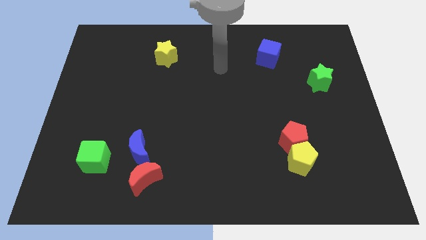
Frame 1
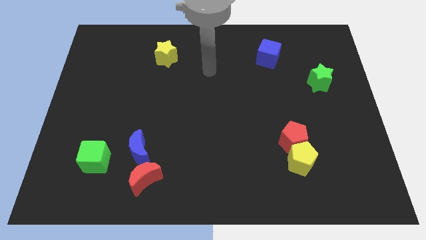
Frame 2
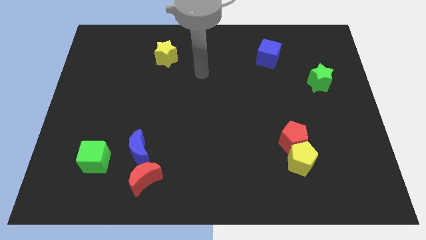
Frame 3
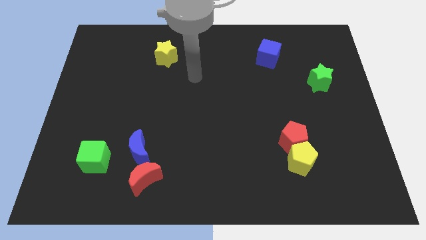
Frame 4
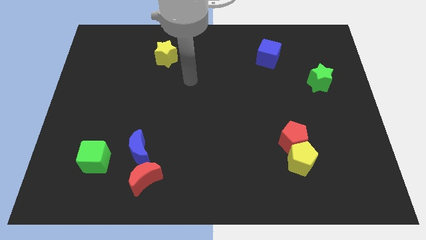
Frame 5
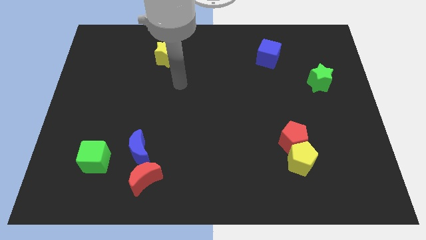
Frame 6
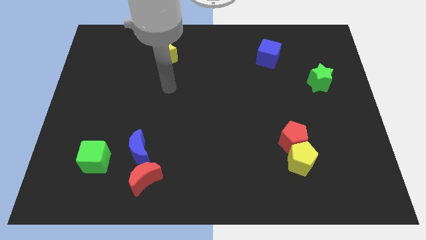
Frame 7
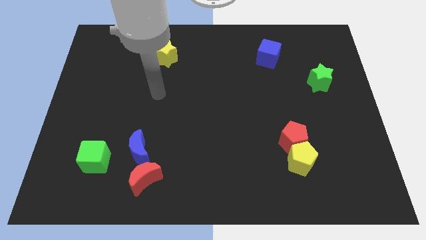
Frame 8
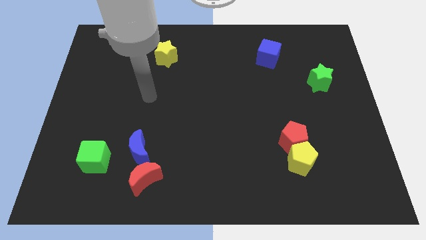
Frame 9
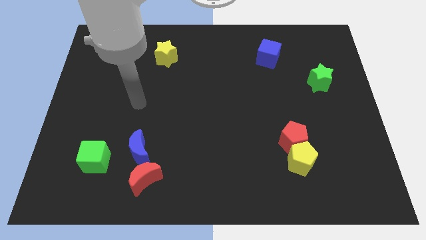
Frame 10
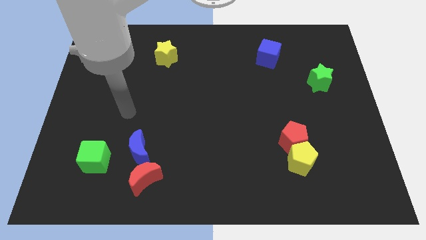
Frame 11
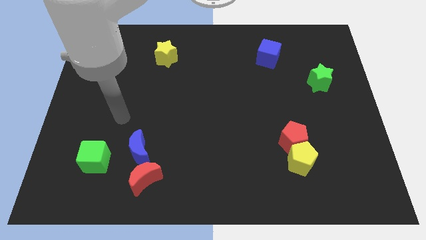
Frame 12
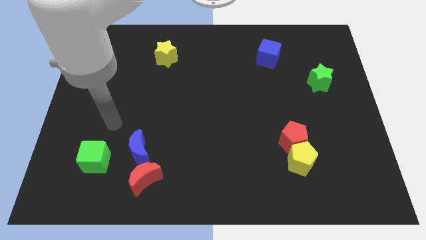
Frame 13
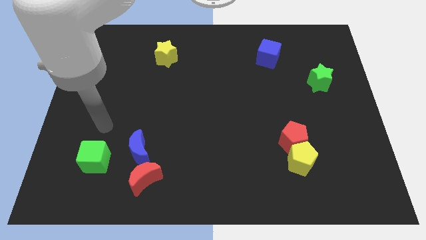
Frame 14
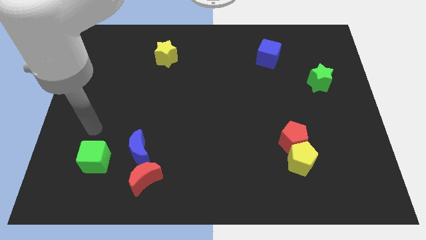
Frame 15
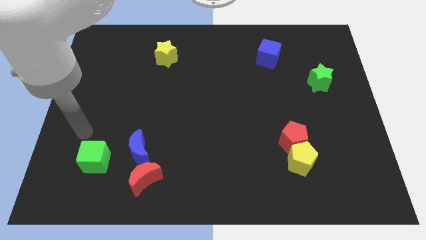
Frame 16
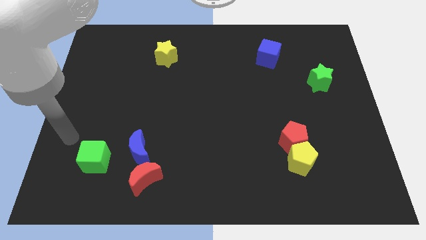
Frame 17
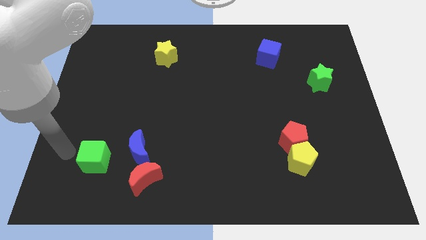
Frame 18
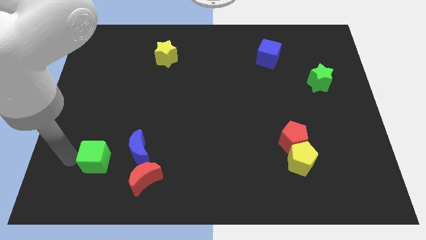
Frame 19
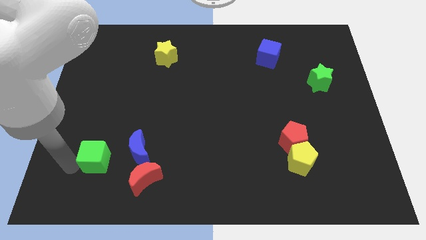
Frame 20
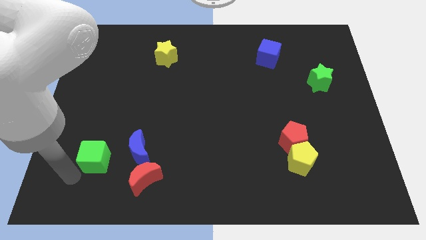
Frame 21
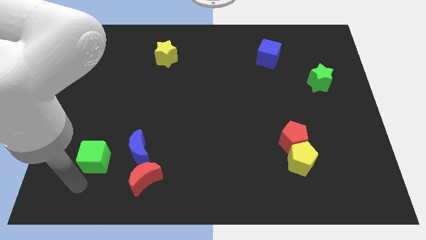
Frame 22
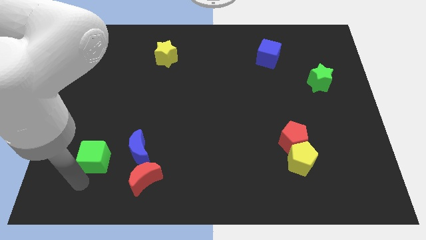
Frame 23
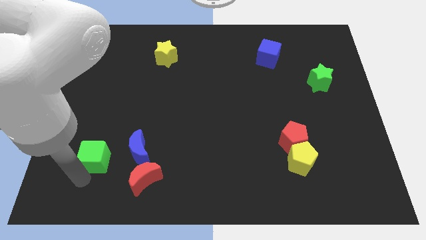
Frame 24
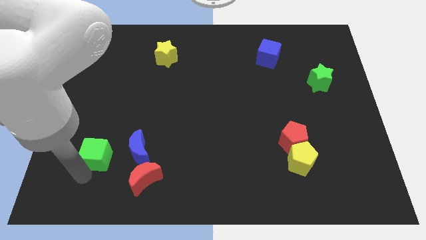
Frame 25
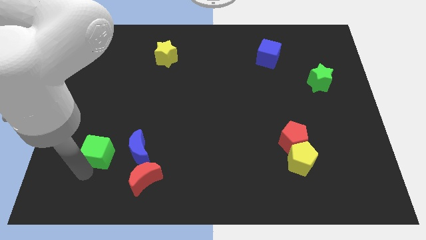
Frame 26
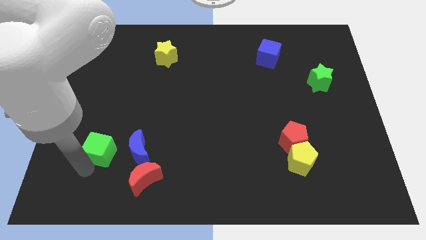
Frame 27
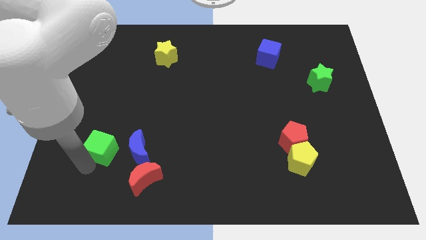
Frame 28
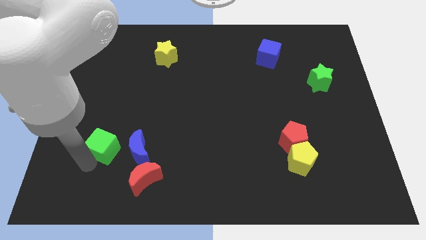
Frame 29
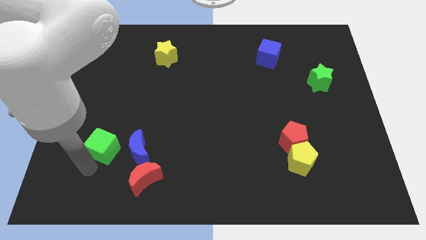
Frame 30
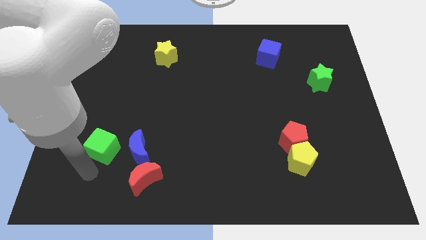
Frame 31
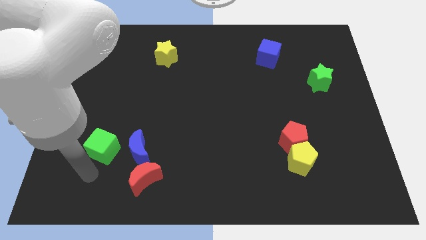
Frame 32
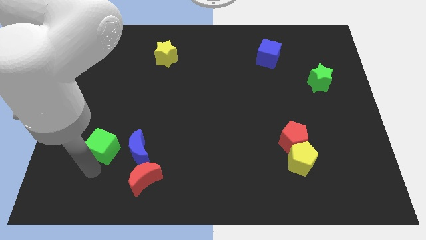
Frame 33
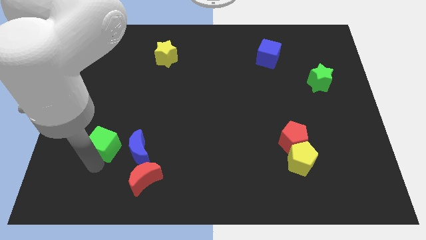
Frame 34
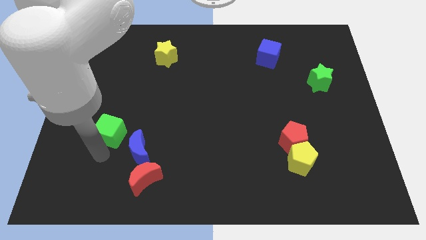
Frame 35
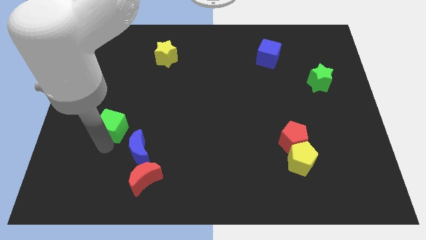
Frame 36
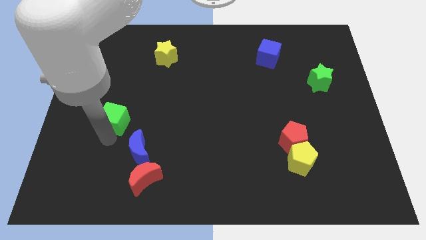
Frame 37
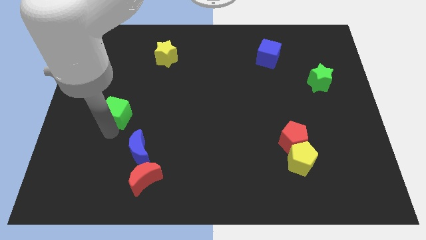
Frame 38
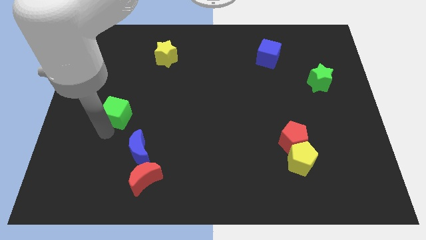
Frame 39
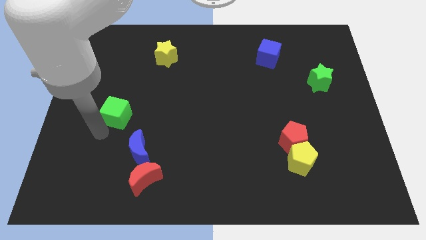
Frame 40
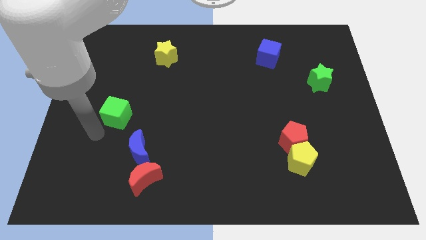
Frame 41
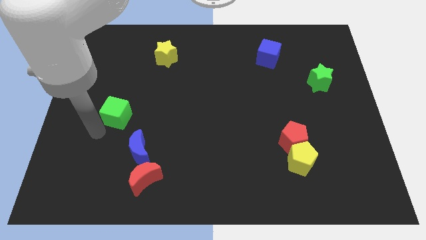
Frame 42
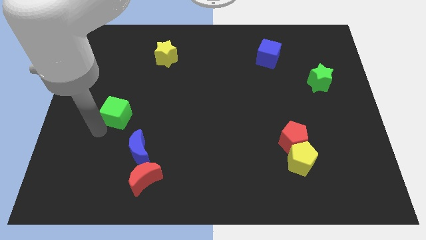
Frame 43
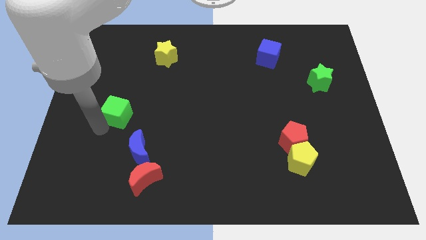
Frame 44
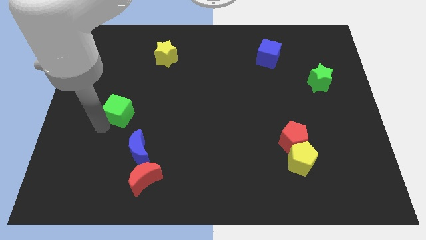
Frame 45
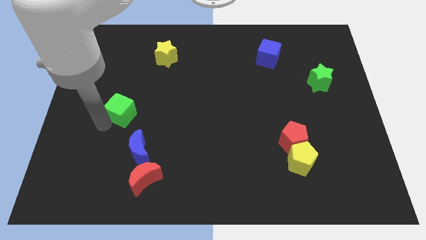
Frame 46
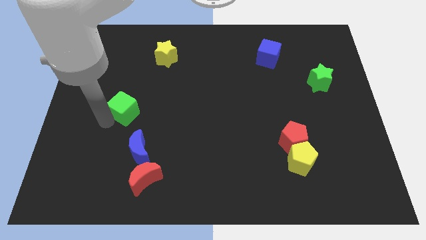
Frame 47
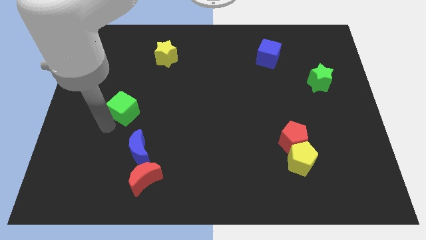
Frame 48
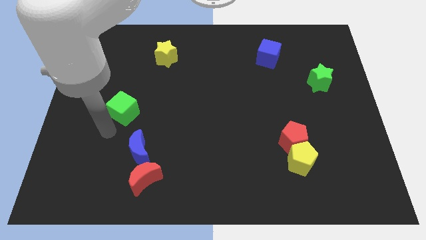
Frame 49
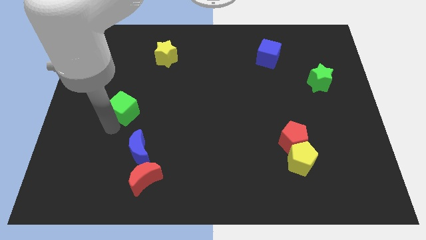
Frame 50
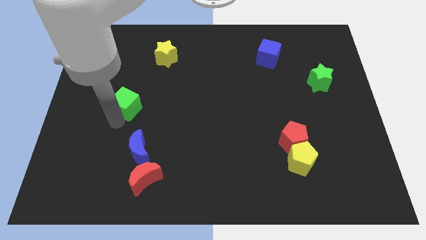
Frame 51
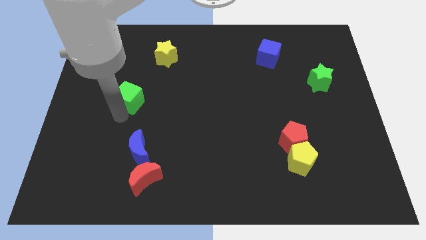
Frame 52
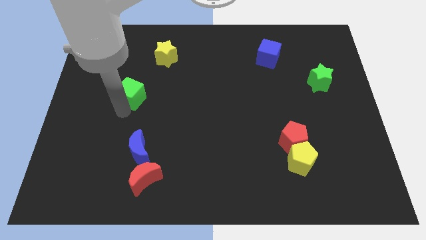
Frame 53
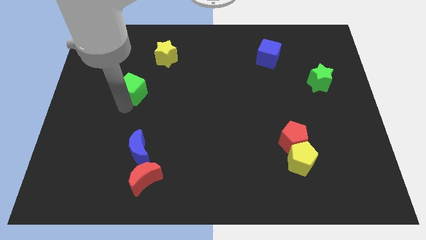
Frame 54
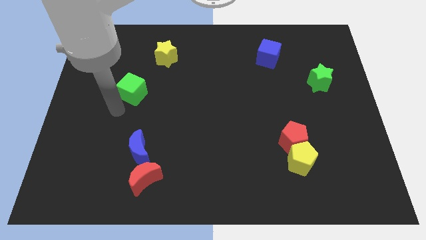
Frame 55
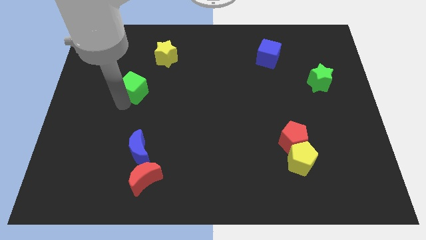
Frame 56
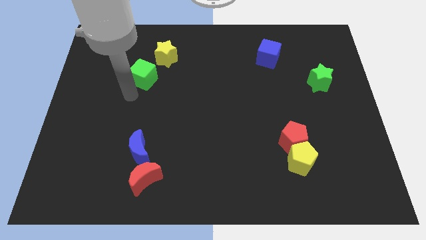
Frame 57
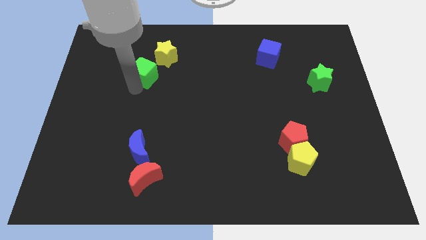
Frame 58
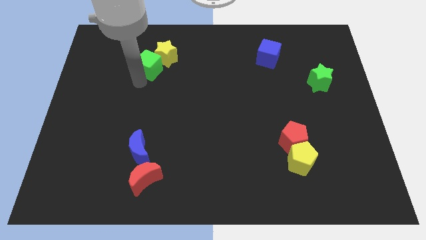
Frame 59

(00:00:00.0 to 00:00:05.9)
push the green cube close to the yellow star

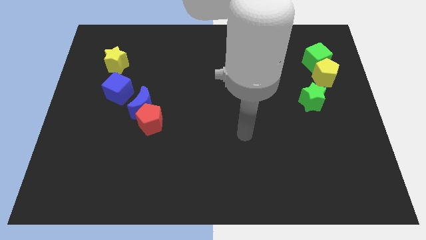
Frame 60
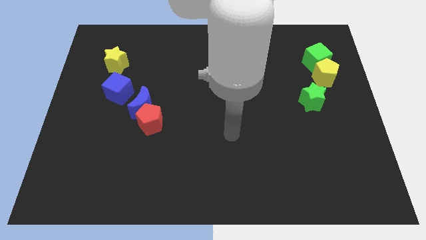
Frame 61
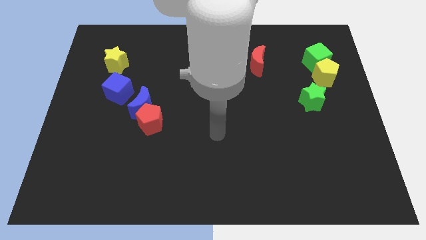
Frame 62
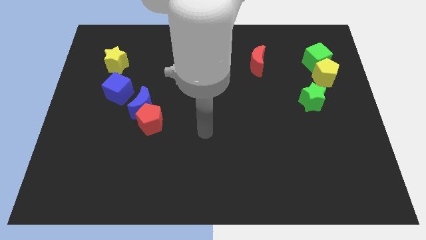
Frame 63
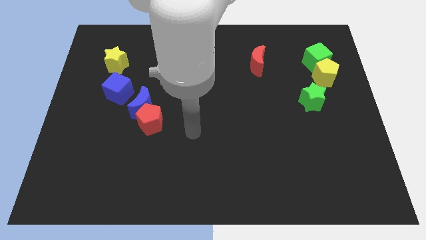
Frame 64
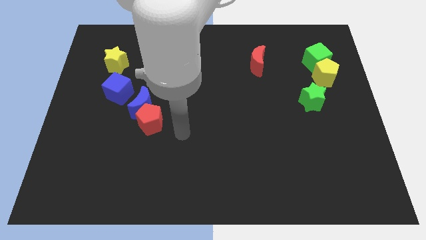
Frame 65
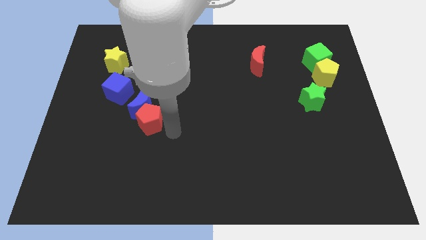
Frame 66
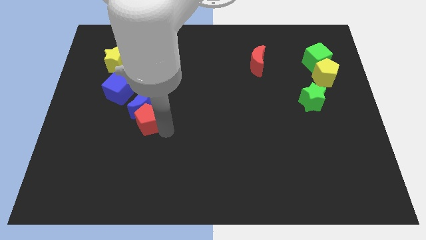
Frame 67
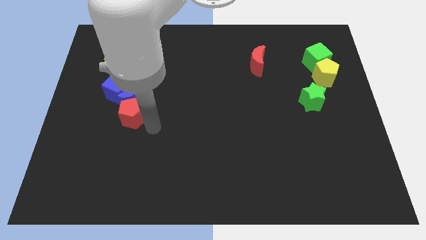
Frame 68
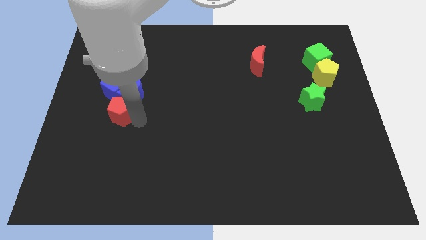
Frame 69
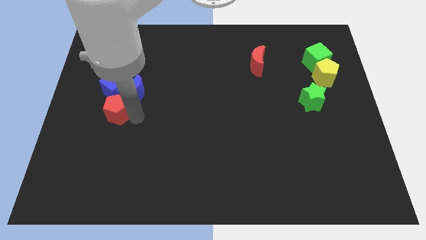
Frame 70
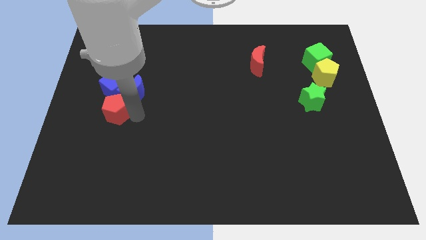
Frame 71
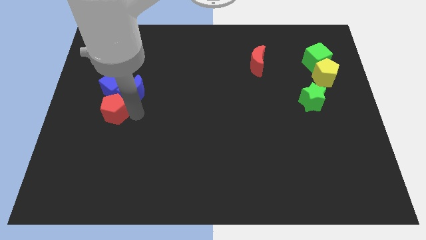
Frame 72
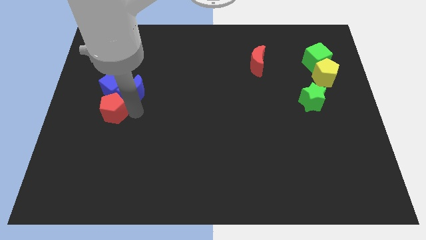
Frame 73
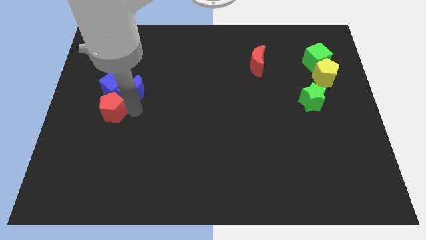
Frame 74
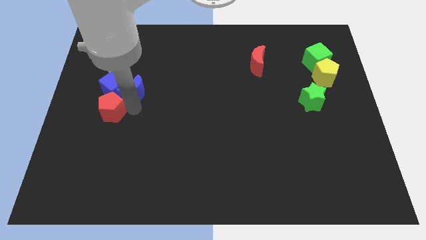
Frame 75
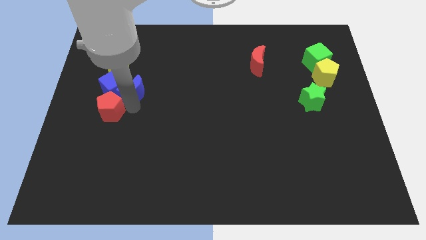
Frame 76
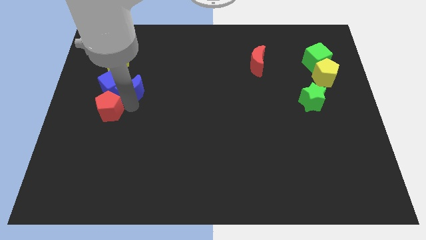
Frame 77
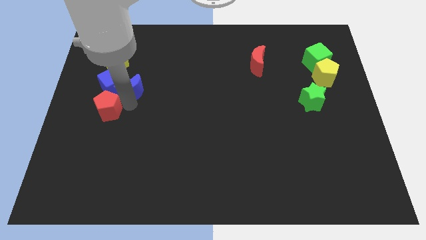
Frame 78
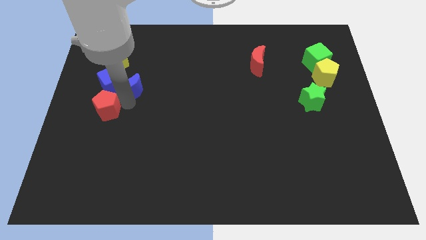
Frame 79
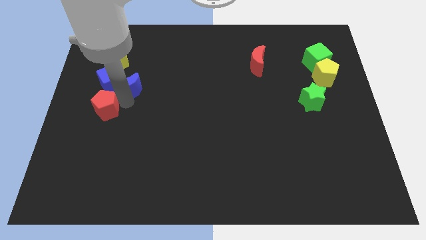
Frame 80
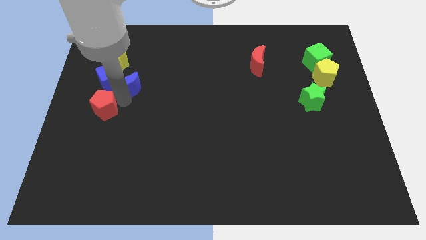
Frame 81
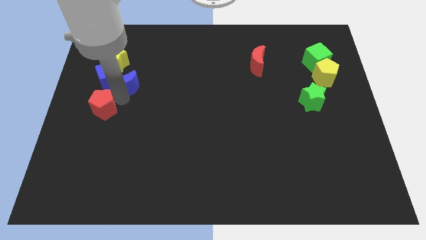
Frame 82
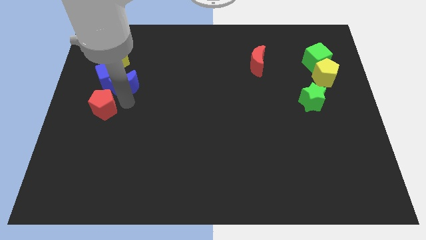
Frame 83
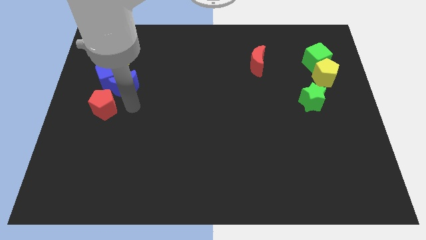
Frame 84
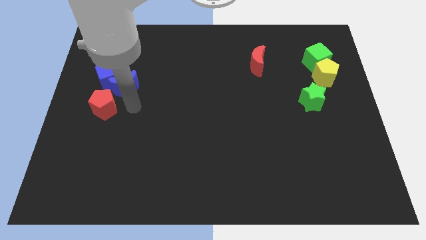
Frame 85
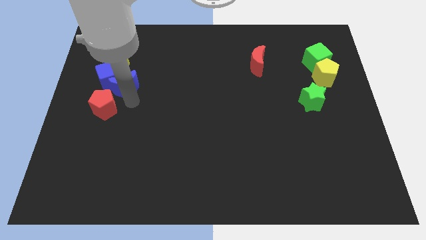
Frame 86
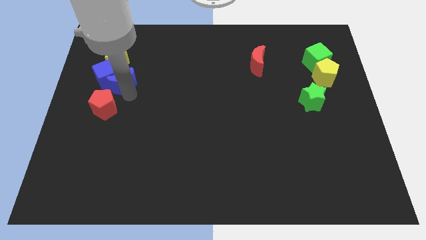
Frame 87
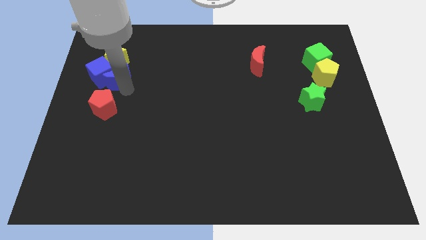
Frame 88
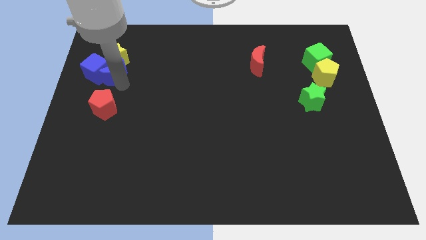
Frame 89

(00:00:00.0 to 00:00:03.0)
put the blue moon towards the yellow star
